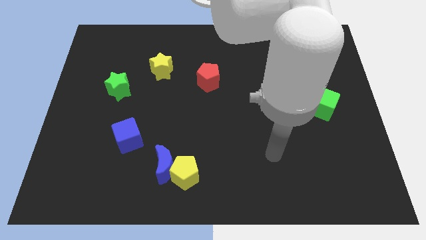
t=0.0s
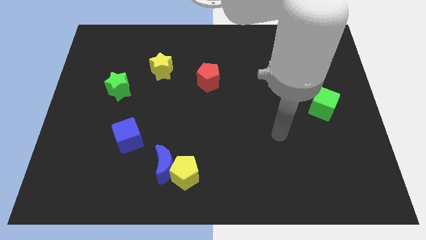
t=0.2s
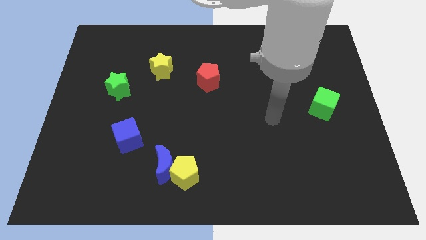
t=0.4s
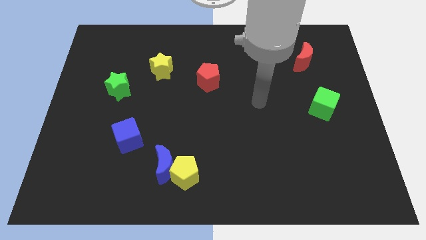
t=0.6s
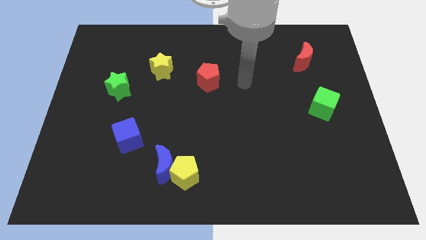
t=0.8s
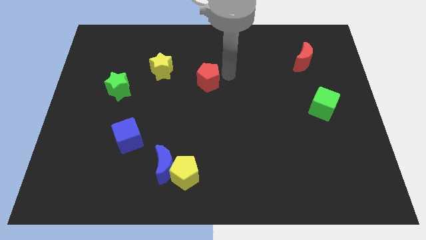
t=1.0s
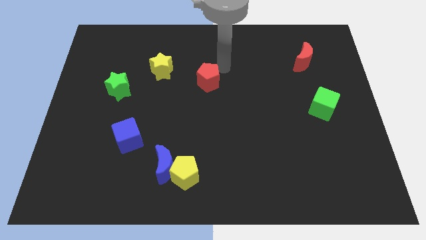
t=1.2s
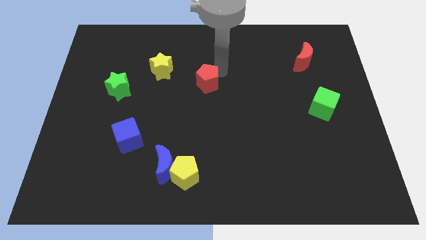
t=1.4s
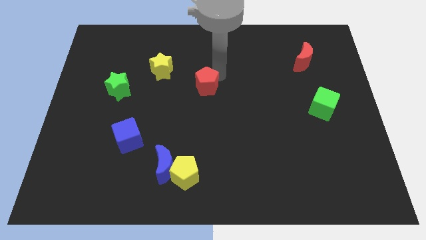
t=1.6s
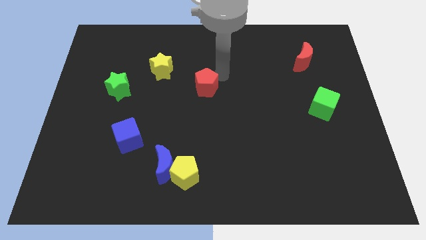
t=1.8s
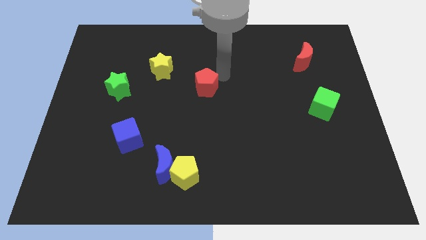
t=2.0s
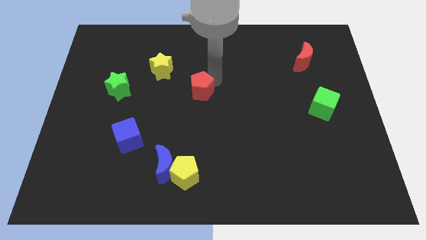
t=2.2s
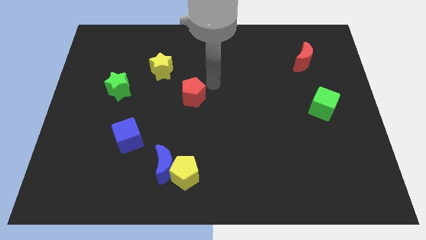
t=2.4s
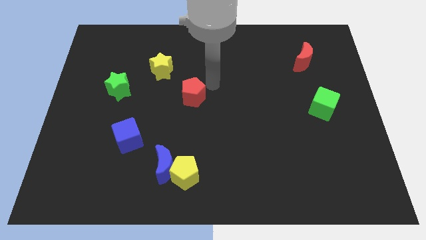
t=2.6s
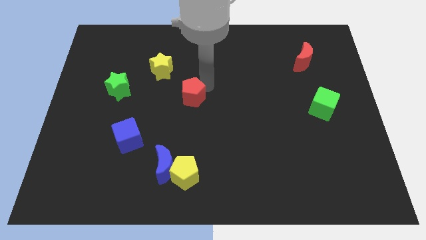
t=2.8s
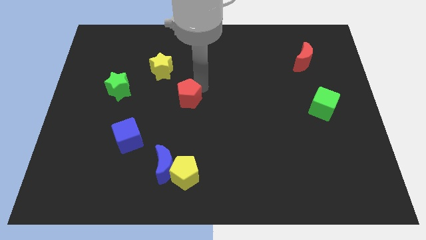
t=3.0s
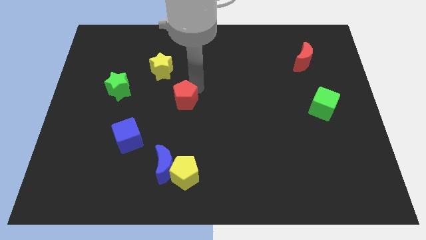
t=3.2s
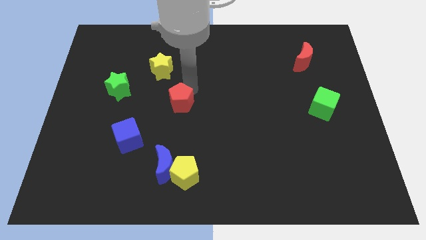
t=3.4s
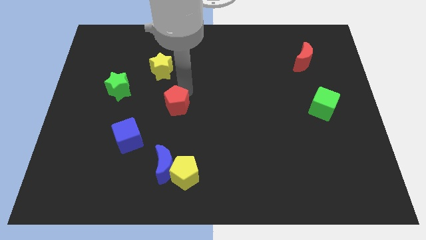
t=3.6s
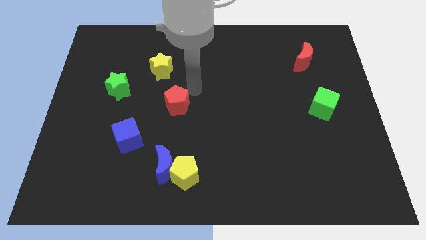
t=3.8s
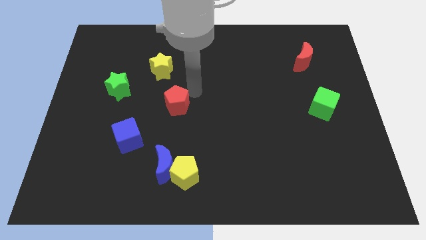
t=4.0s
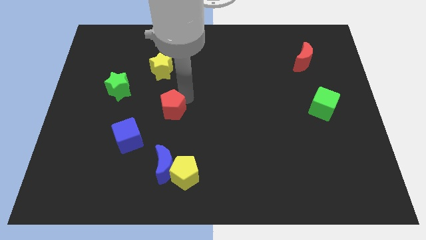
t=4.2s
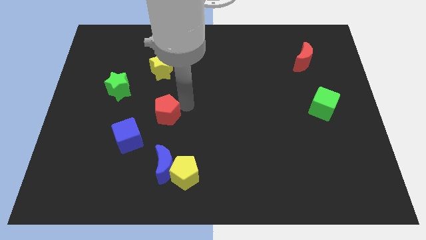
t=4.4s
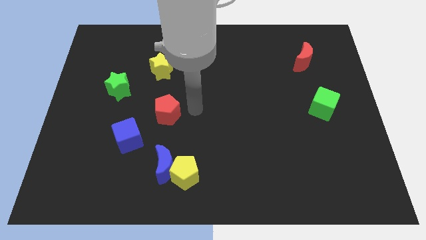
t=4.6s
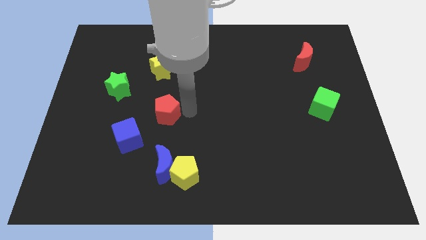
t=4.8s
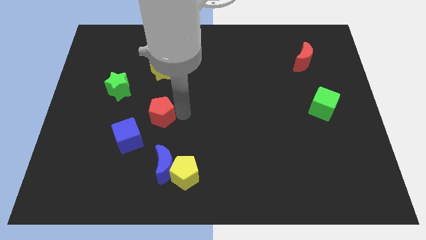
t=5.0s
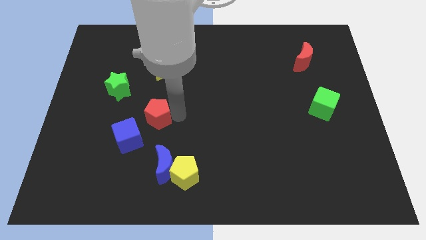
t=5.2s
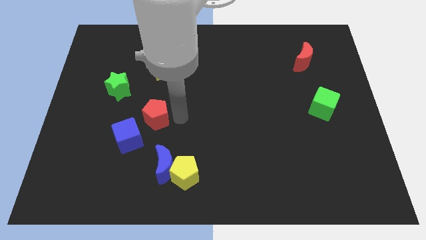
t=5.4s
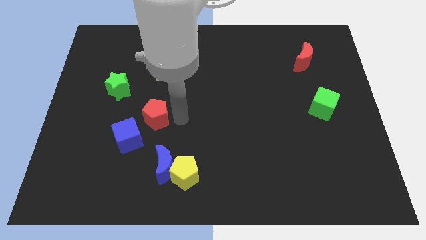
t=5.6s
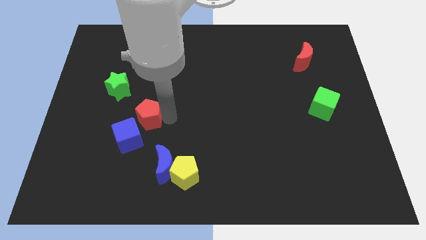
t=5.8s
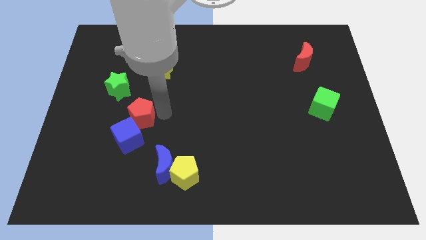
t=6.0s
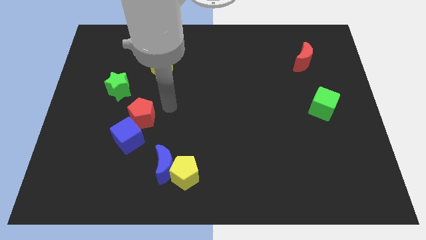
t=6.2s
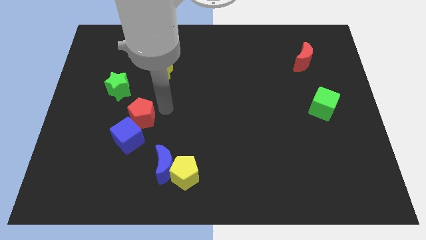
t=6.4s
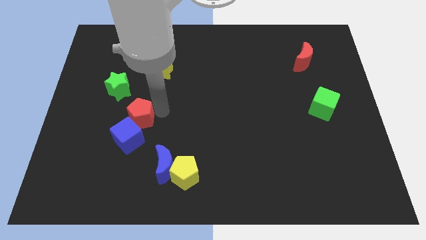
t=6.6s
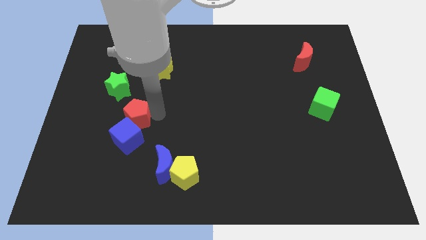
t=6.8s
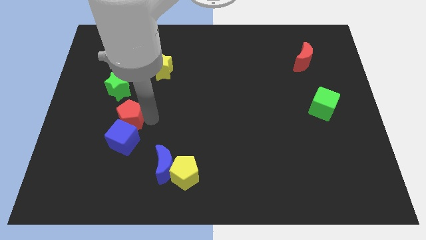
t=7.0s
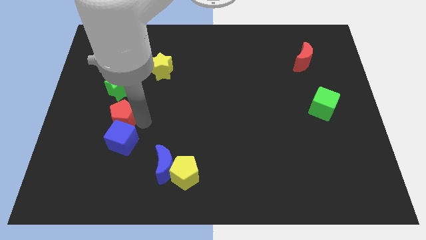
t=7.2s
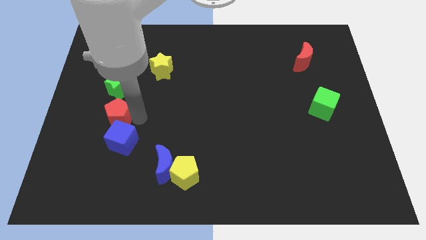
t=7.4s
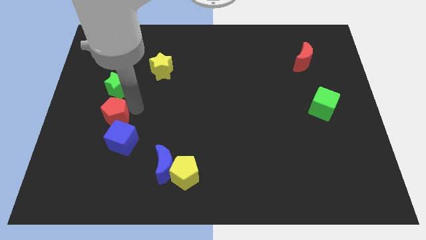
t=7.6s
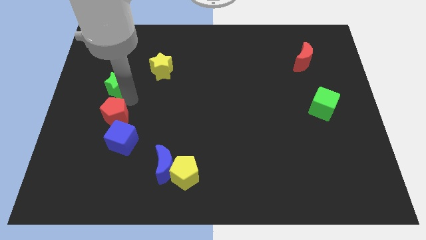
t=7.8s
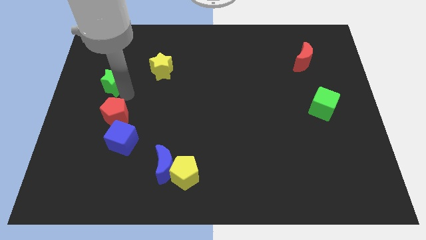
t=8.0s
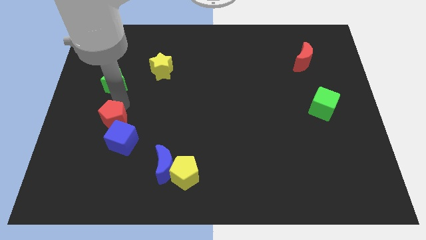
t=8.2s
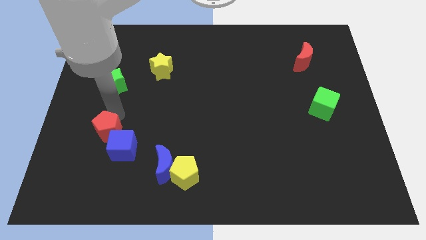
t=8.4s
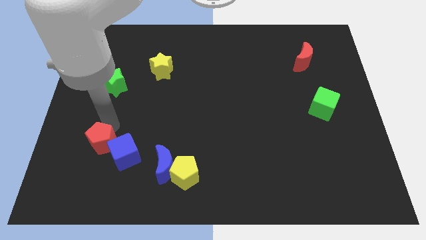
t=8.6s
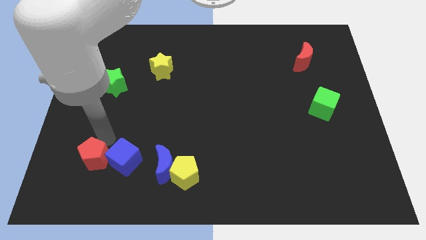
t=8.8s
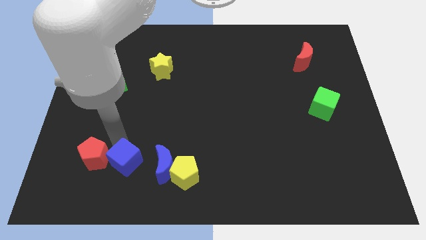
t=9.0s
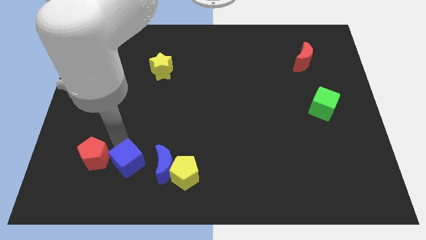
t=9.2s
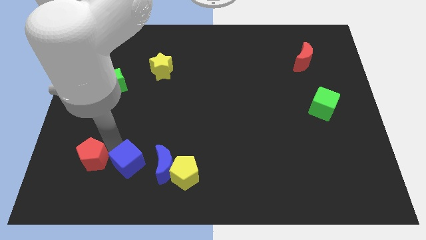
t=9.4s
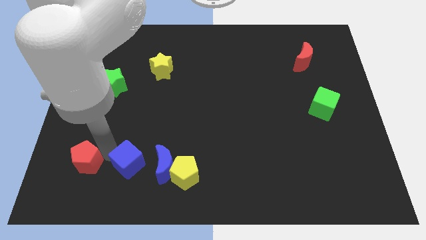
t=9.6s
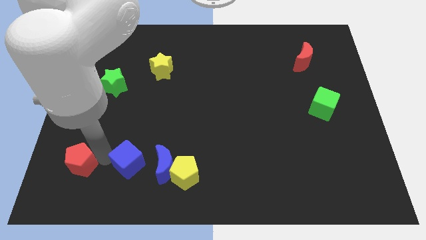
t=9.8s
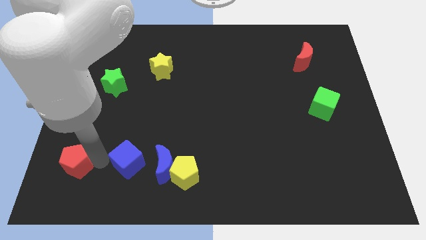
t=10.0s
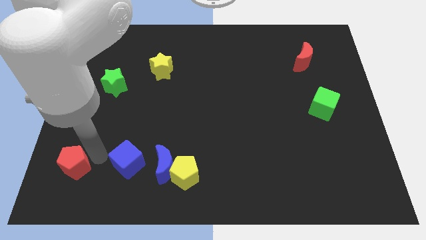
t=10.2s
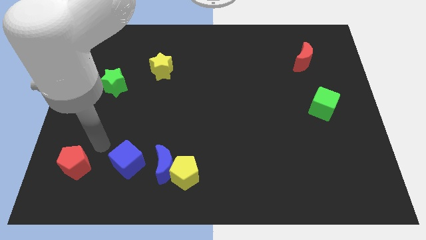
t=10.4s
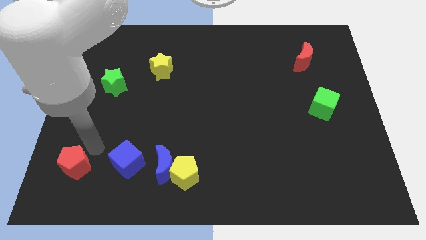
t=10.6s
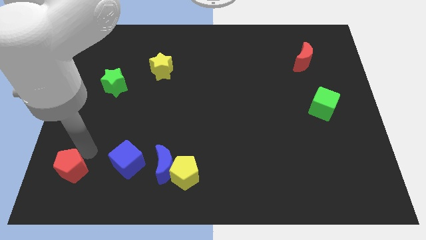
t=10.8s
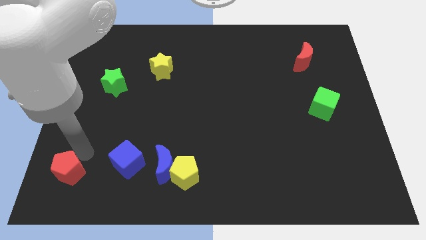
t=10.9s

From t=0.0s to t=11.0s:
put the red pentagon to the bottom left corner

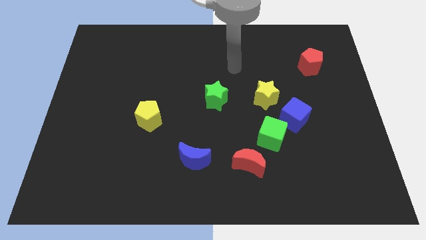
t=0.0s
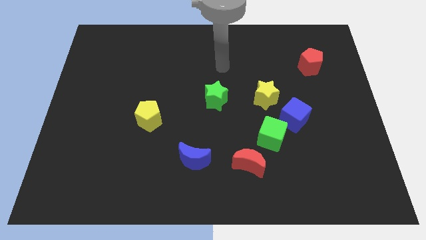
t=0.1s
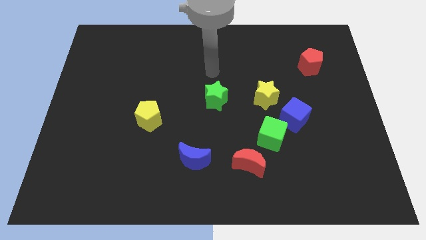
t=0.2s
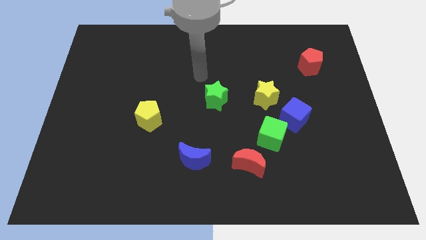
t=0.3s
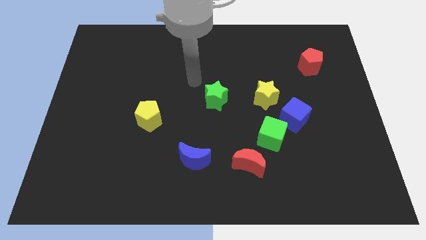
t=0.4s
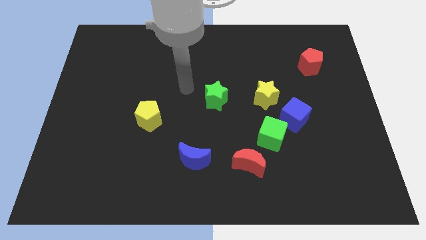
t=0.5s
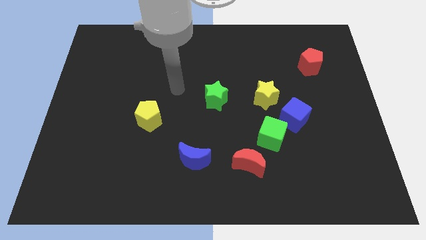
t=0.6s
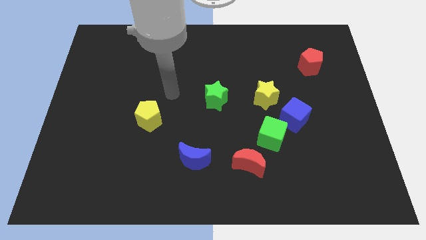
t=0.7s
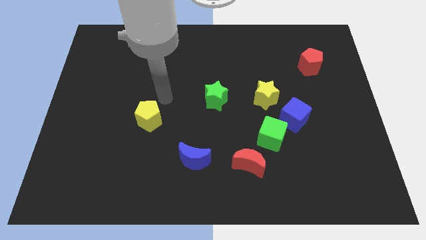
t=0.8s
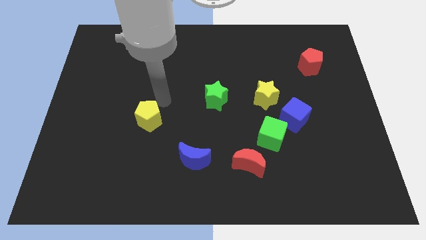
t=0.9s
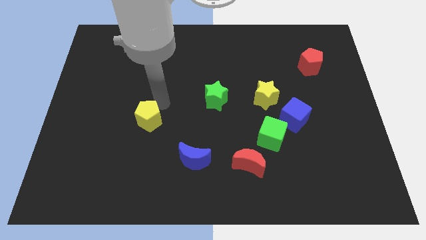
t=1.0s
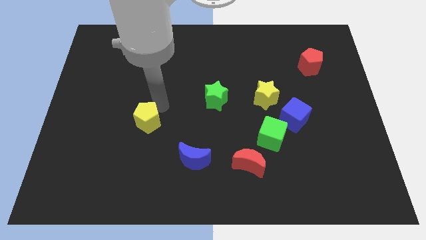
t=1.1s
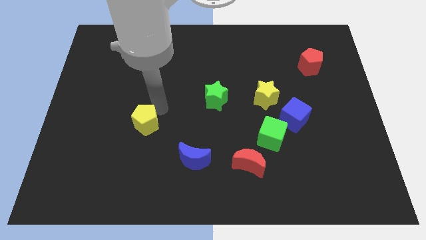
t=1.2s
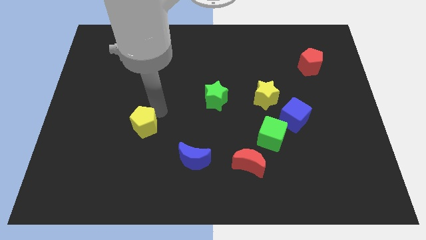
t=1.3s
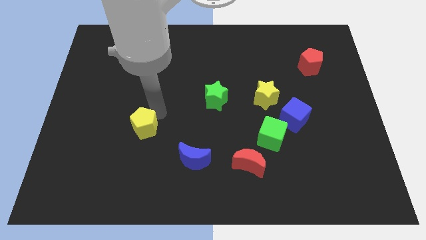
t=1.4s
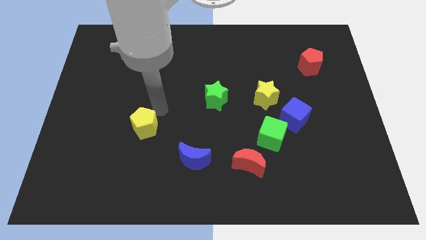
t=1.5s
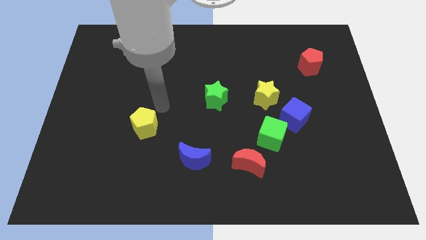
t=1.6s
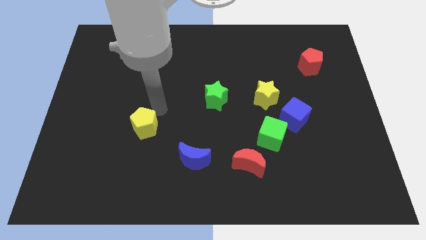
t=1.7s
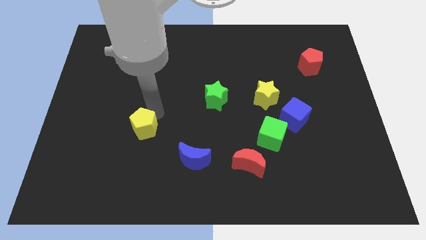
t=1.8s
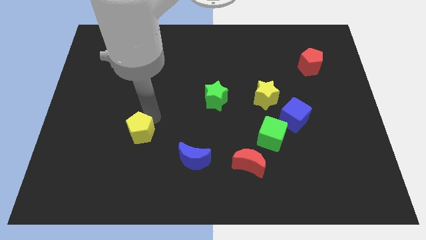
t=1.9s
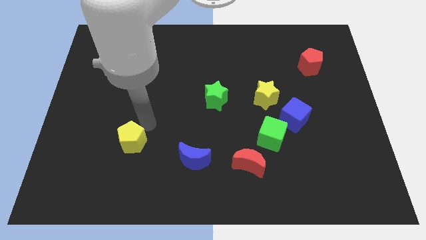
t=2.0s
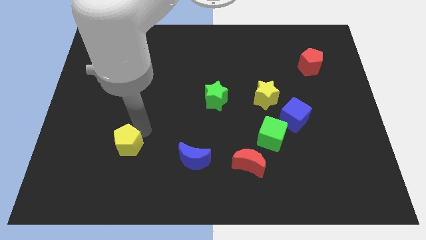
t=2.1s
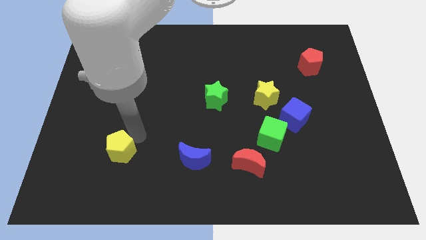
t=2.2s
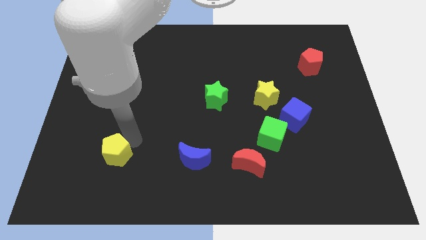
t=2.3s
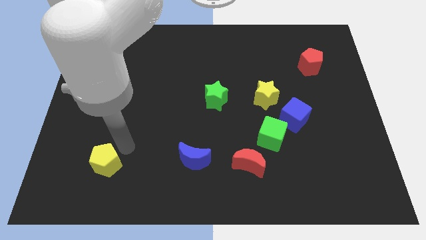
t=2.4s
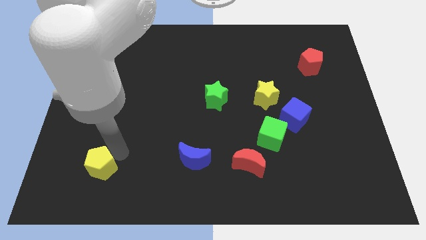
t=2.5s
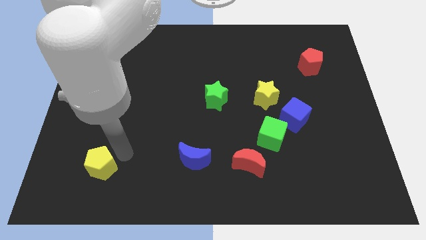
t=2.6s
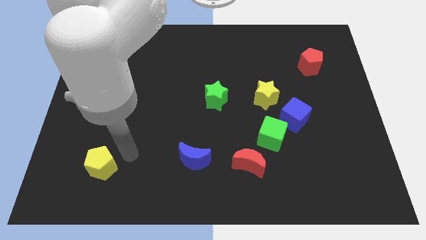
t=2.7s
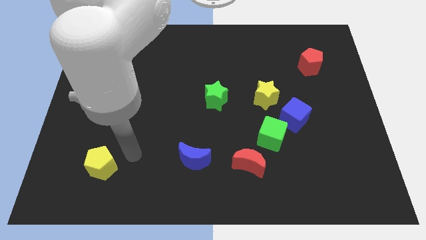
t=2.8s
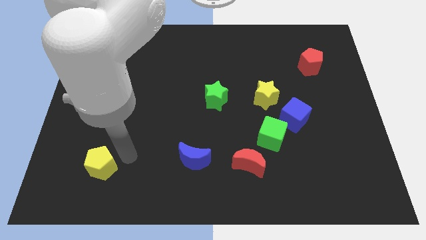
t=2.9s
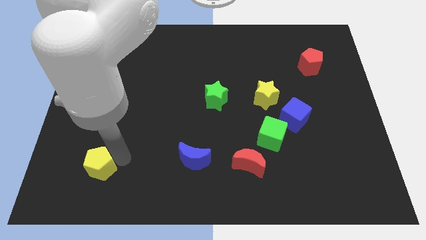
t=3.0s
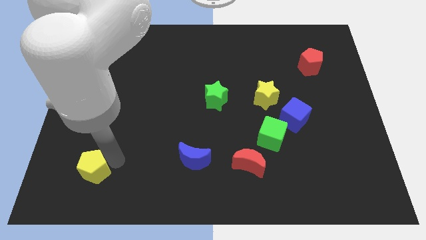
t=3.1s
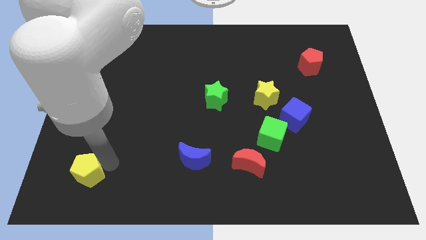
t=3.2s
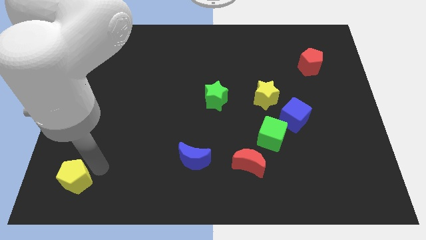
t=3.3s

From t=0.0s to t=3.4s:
slide the yellow pentagon to the bottom left
